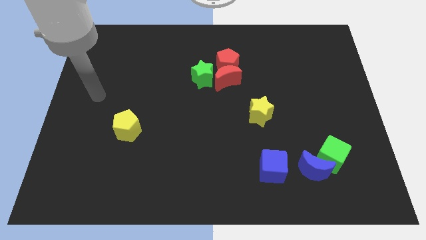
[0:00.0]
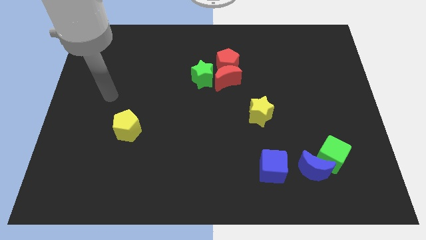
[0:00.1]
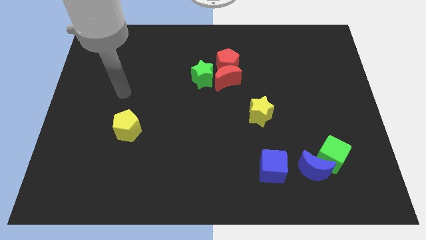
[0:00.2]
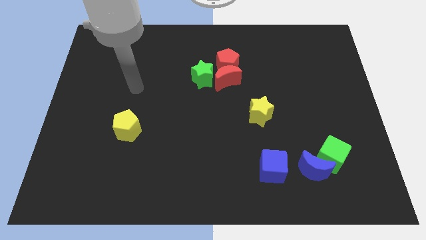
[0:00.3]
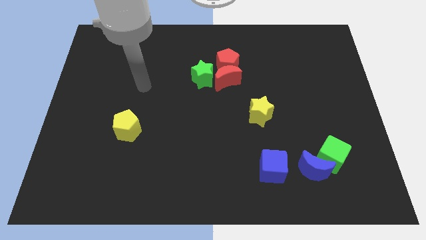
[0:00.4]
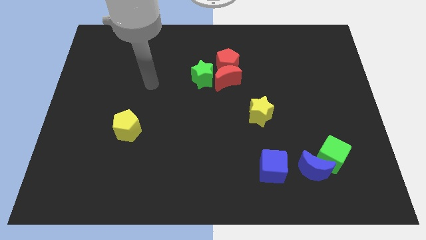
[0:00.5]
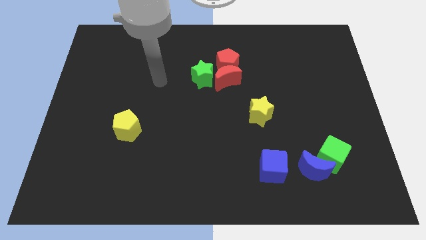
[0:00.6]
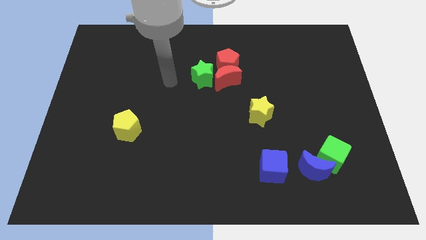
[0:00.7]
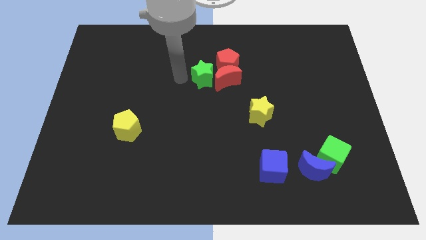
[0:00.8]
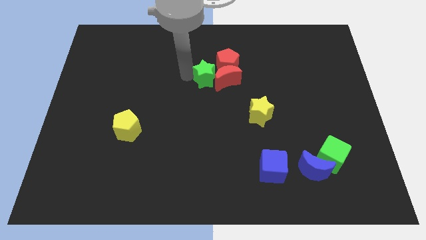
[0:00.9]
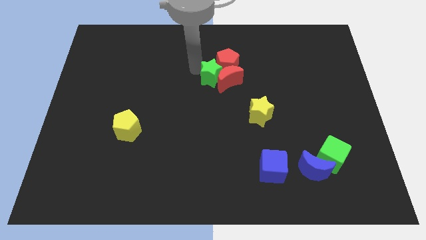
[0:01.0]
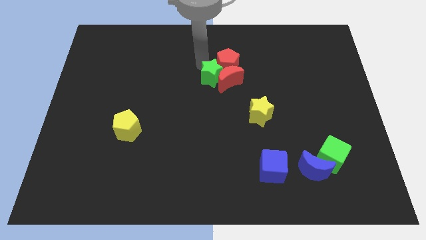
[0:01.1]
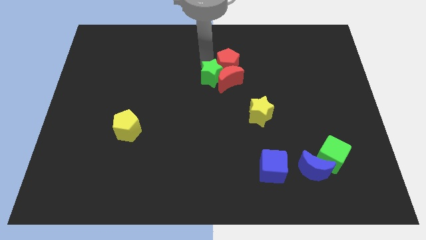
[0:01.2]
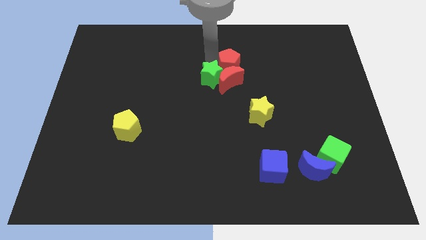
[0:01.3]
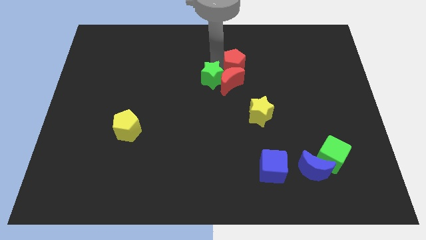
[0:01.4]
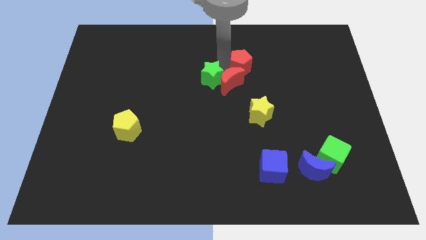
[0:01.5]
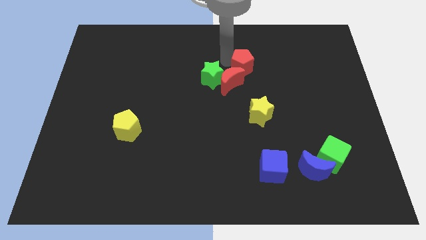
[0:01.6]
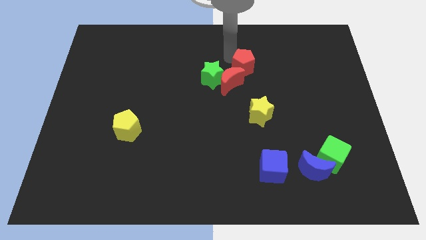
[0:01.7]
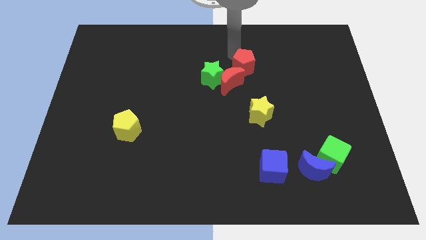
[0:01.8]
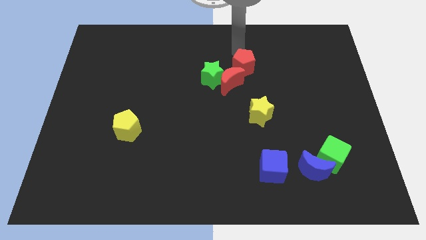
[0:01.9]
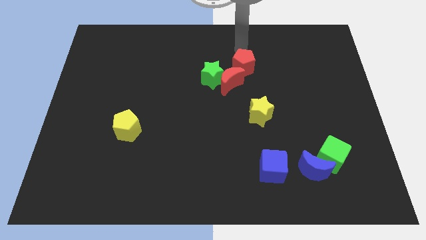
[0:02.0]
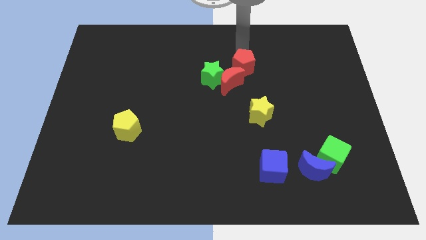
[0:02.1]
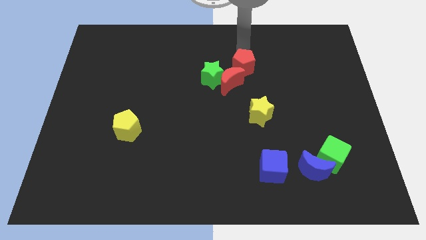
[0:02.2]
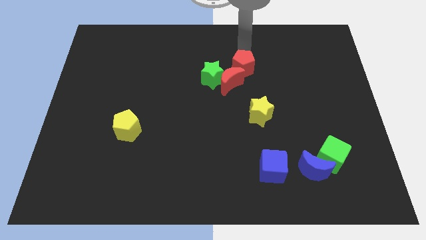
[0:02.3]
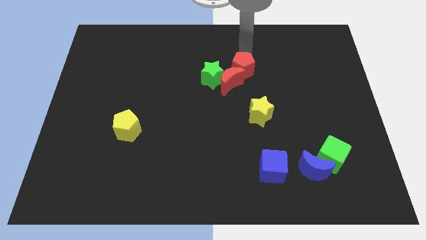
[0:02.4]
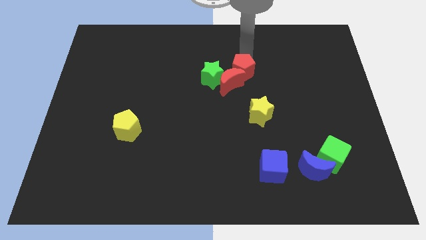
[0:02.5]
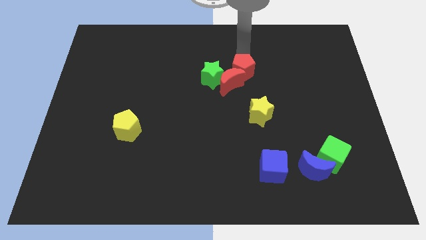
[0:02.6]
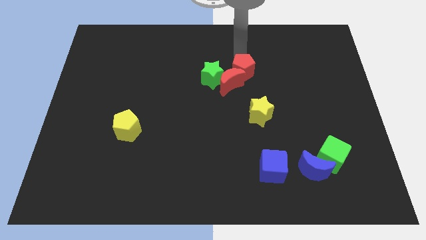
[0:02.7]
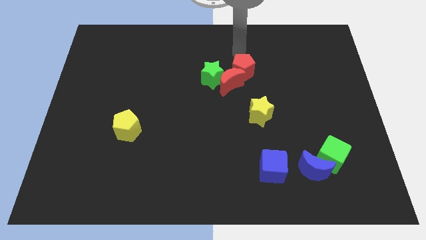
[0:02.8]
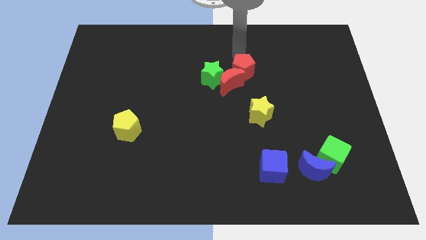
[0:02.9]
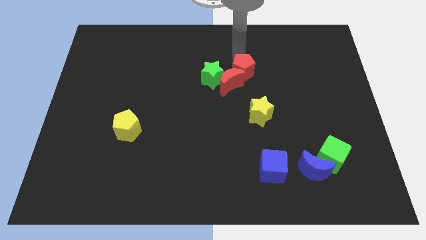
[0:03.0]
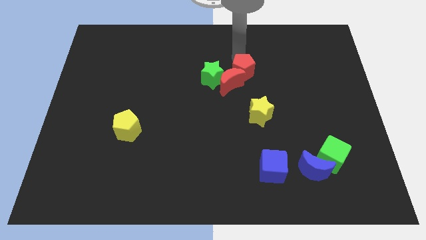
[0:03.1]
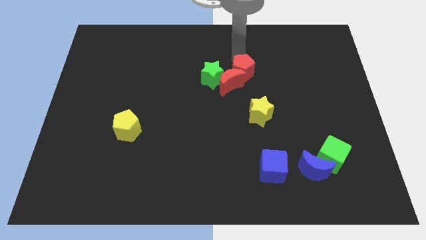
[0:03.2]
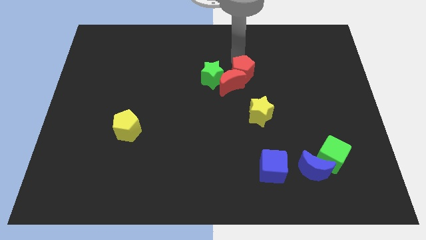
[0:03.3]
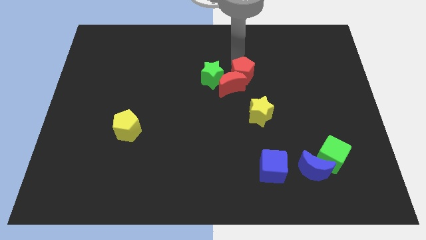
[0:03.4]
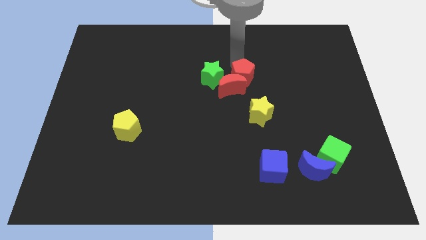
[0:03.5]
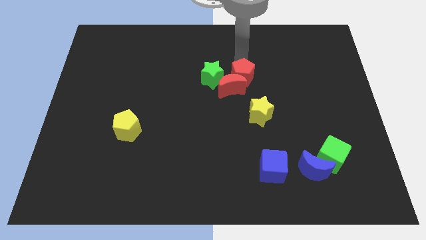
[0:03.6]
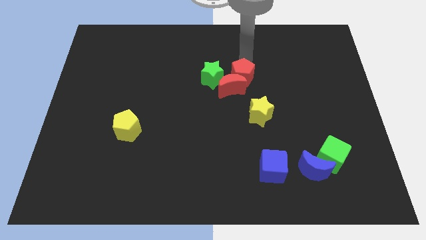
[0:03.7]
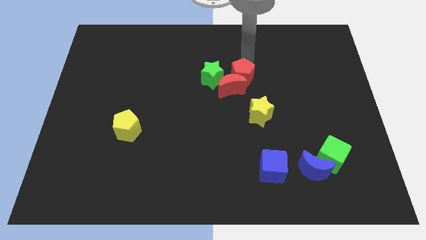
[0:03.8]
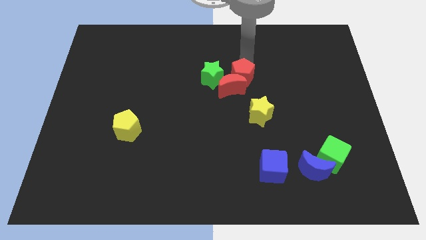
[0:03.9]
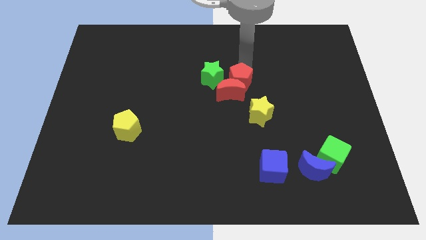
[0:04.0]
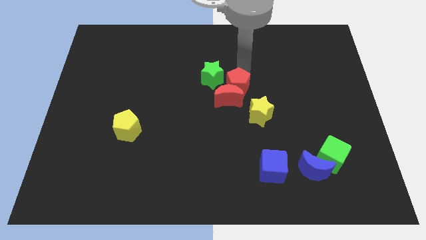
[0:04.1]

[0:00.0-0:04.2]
slide the red pentagon down a bit

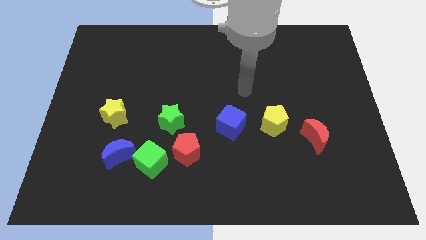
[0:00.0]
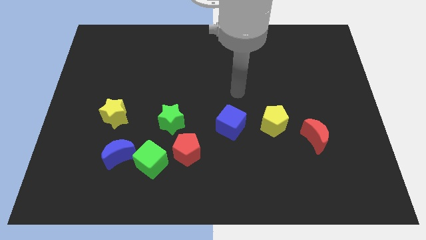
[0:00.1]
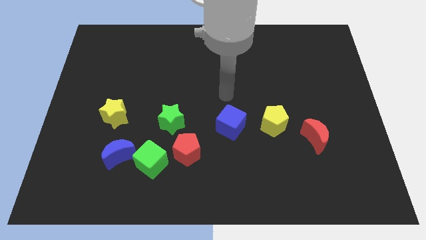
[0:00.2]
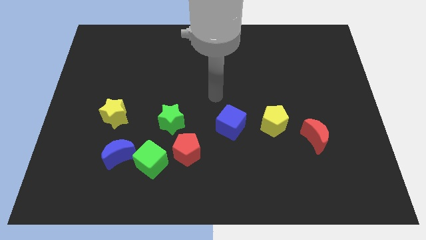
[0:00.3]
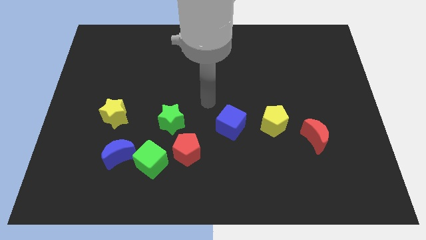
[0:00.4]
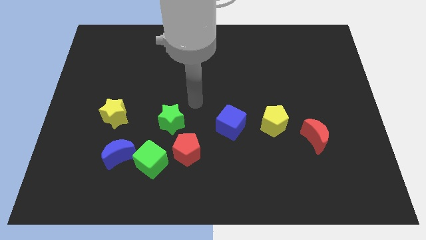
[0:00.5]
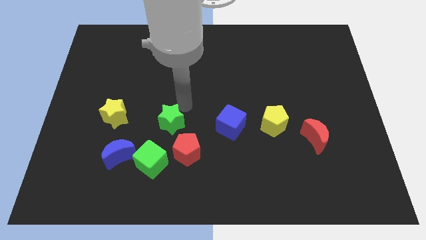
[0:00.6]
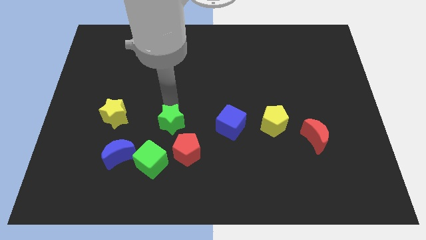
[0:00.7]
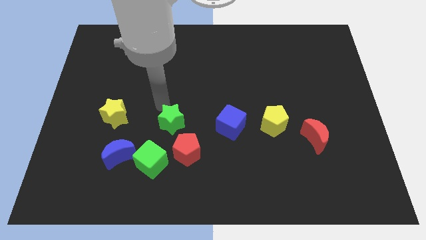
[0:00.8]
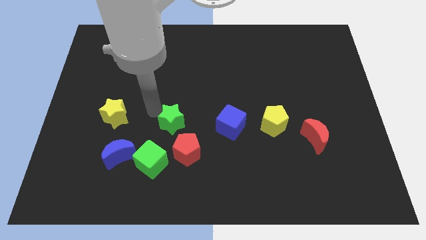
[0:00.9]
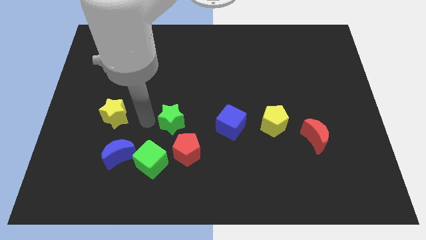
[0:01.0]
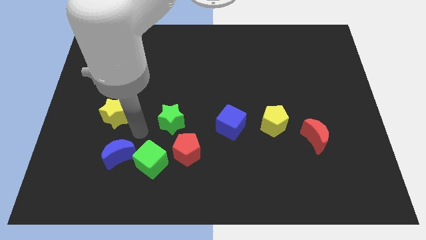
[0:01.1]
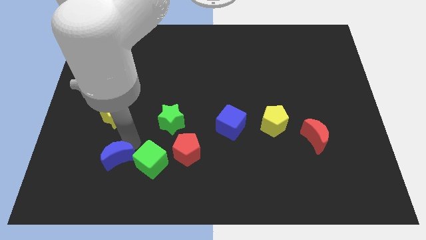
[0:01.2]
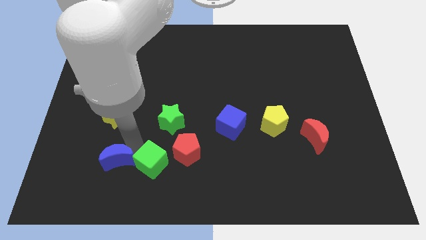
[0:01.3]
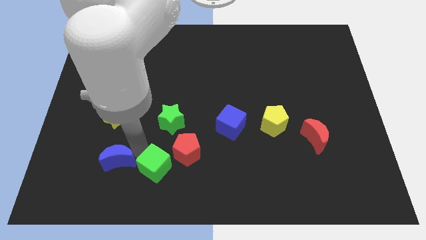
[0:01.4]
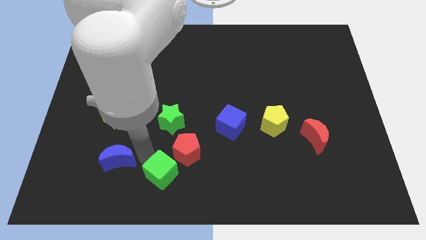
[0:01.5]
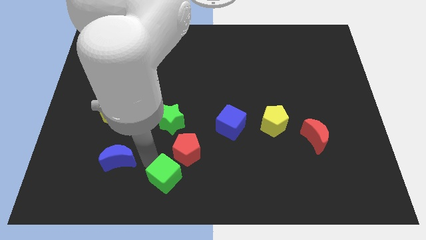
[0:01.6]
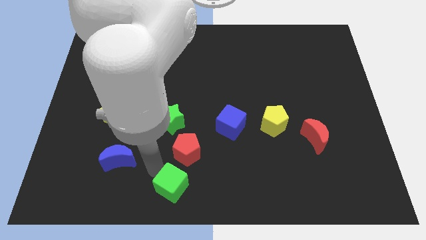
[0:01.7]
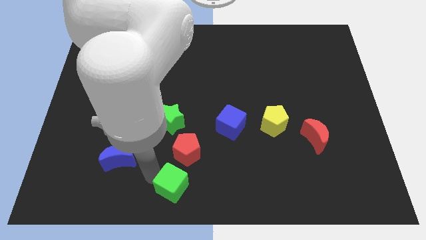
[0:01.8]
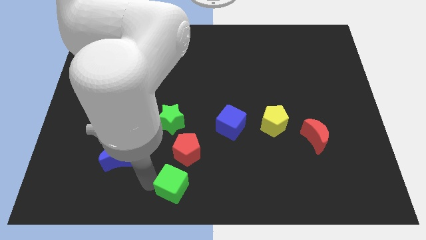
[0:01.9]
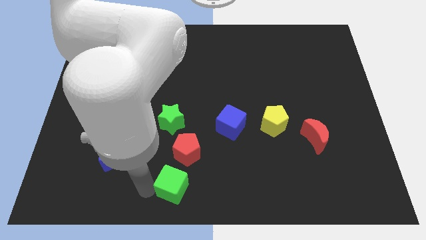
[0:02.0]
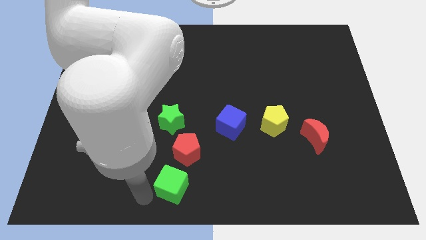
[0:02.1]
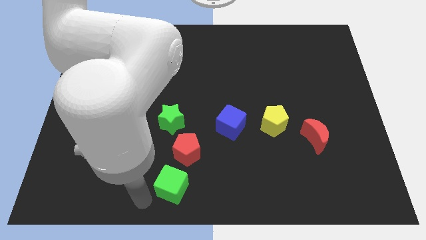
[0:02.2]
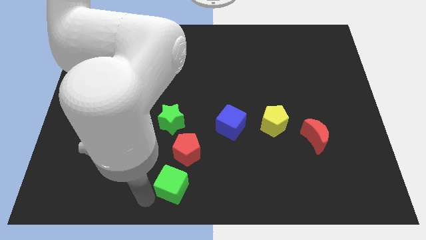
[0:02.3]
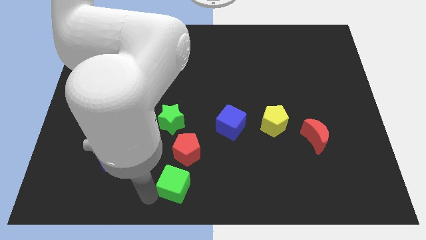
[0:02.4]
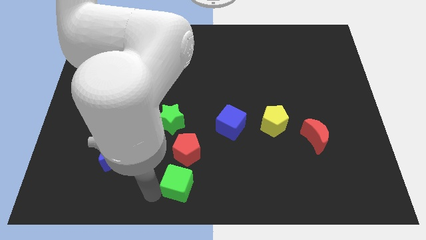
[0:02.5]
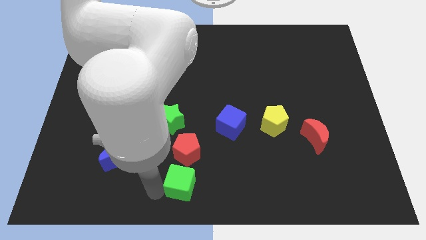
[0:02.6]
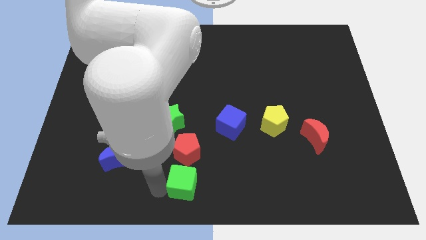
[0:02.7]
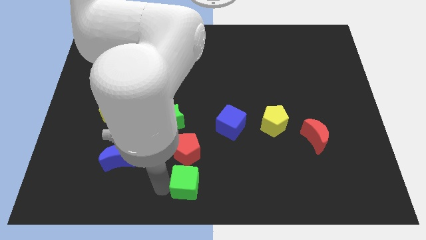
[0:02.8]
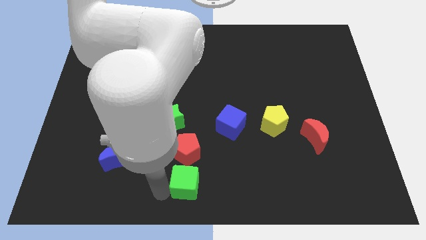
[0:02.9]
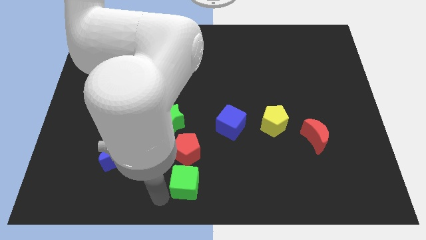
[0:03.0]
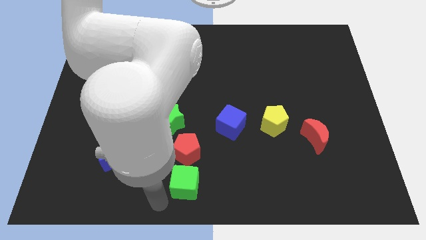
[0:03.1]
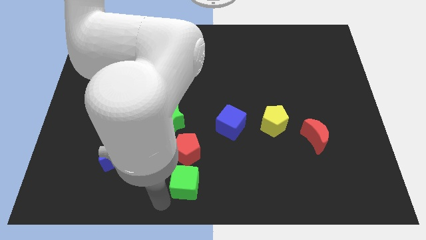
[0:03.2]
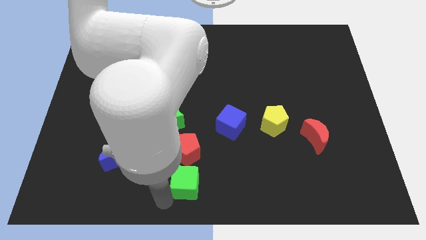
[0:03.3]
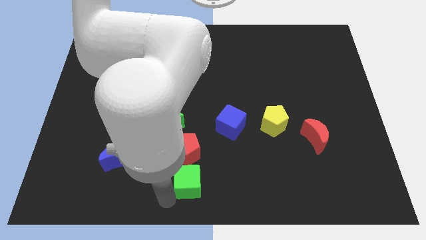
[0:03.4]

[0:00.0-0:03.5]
move the green cube slightly to the right

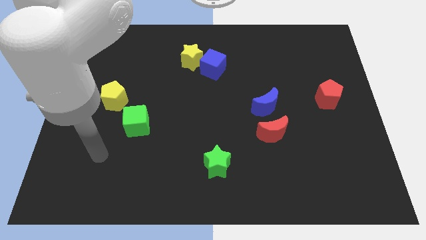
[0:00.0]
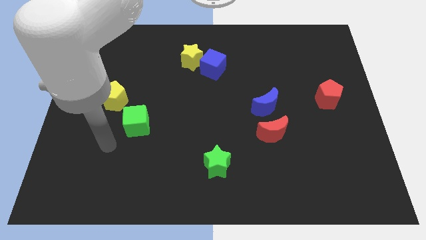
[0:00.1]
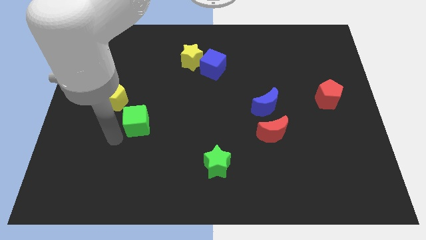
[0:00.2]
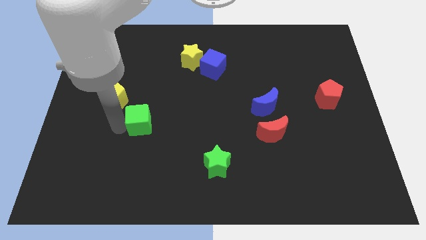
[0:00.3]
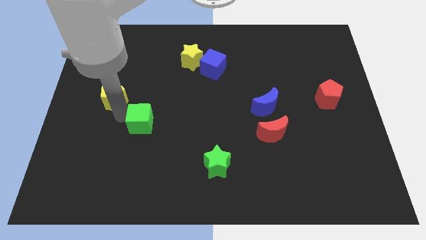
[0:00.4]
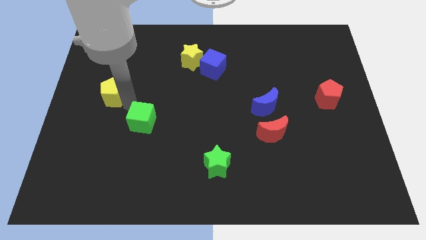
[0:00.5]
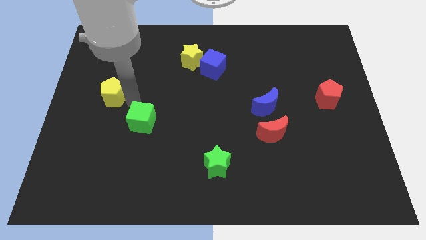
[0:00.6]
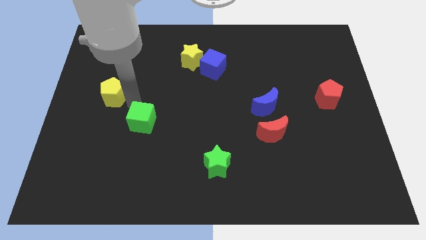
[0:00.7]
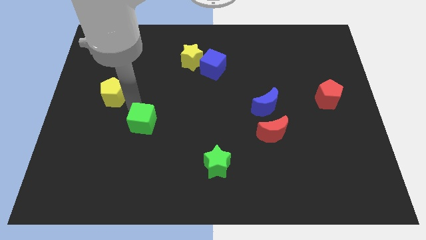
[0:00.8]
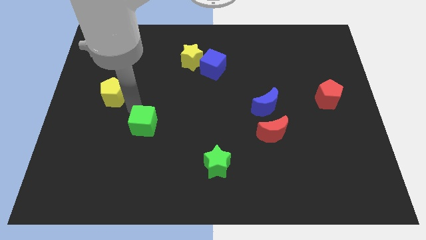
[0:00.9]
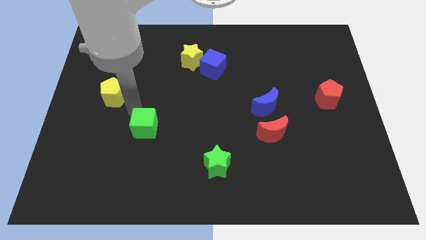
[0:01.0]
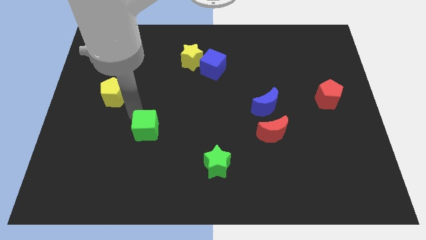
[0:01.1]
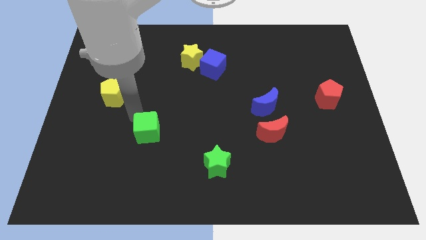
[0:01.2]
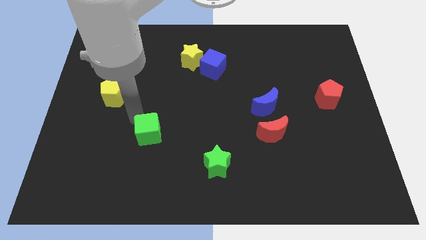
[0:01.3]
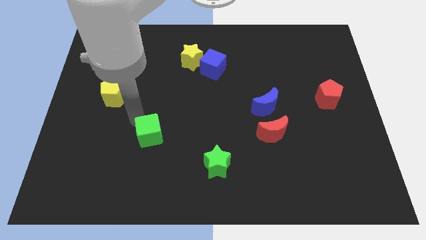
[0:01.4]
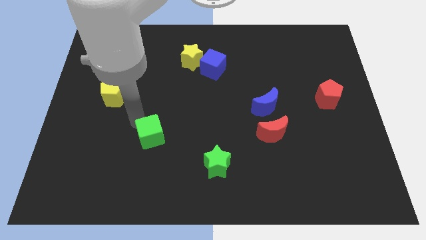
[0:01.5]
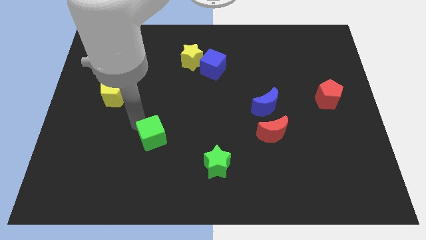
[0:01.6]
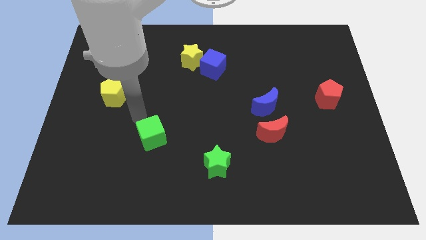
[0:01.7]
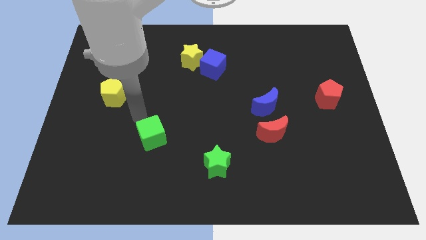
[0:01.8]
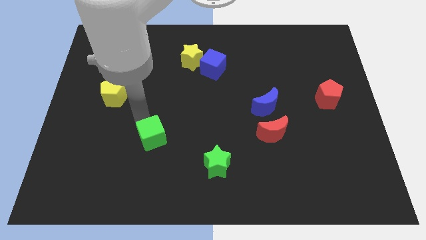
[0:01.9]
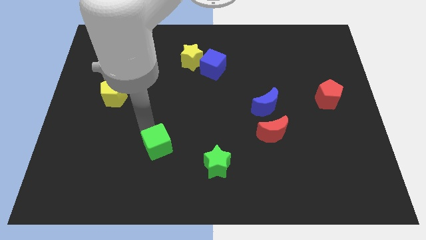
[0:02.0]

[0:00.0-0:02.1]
slightly slide the green cube diagonally down and right
